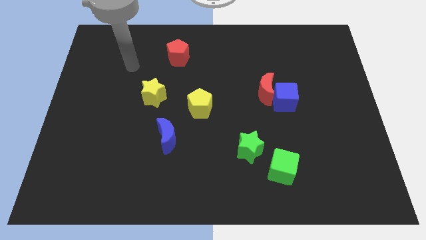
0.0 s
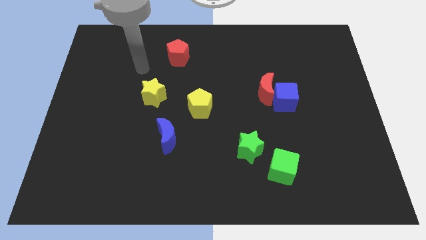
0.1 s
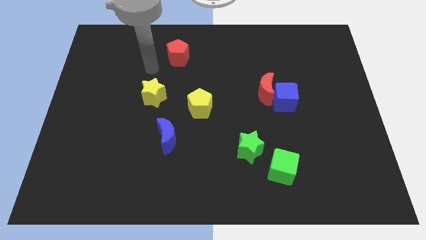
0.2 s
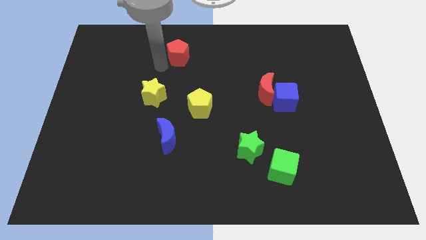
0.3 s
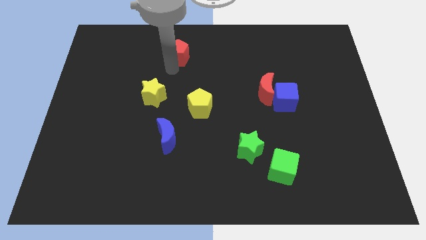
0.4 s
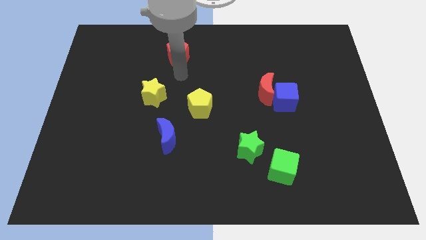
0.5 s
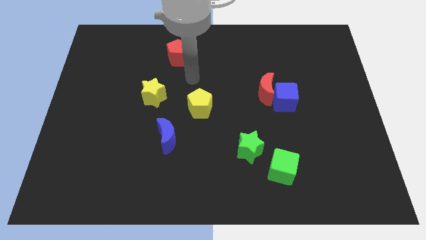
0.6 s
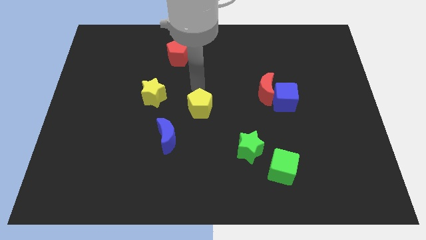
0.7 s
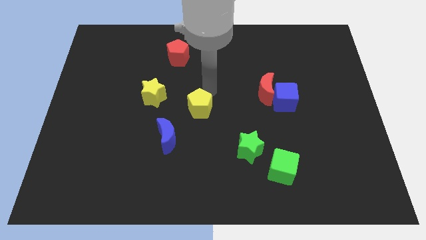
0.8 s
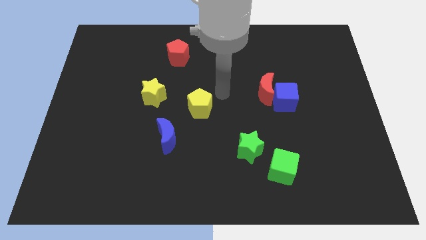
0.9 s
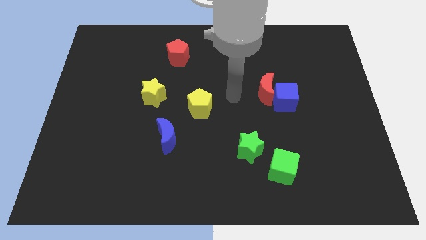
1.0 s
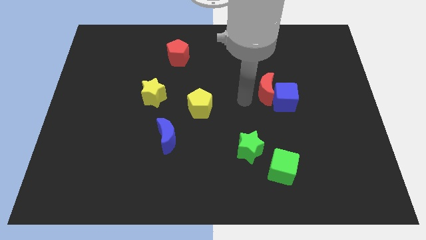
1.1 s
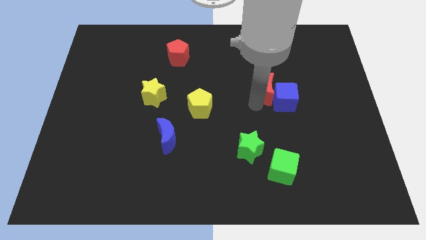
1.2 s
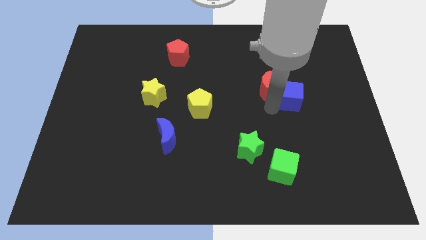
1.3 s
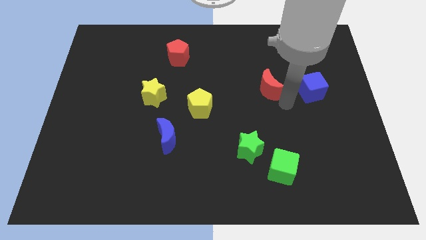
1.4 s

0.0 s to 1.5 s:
separate the red moon from the blue cube

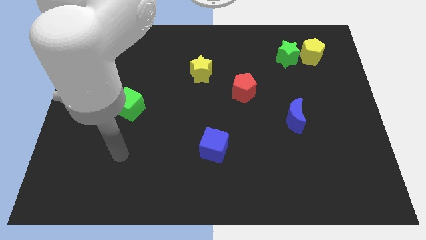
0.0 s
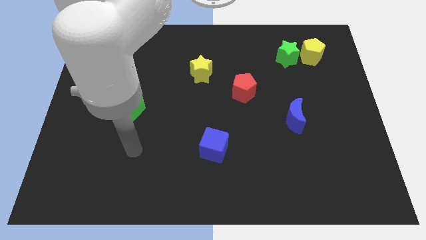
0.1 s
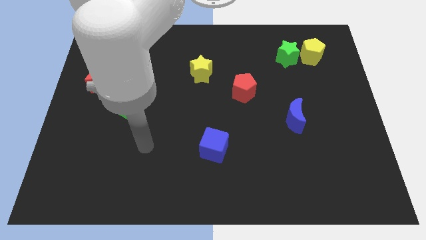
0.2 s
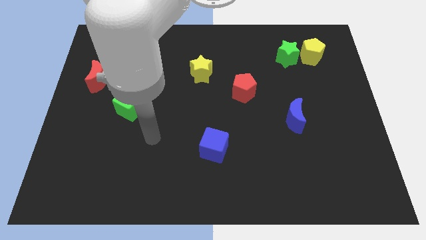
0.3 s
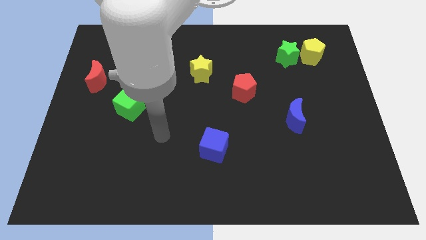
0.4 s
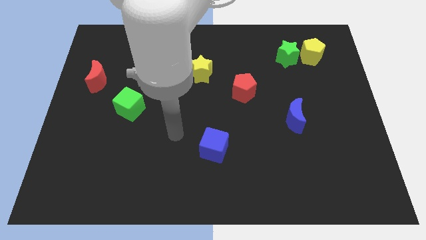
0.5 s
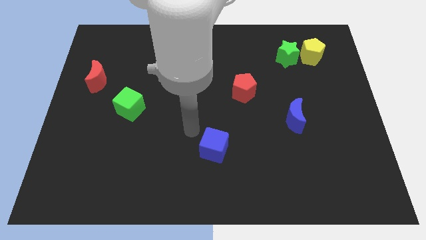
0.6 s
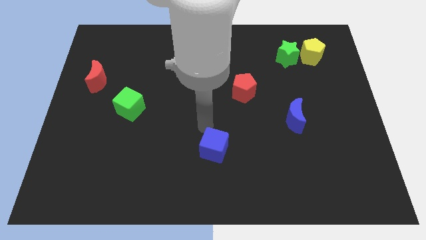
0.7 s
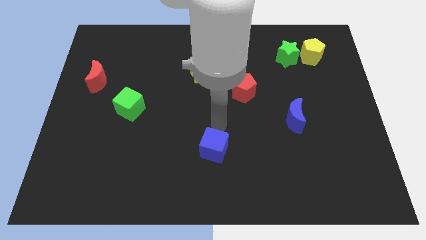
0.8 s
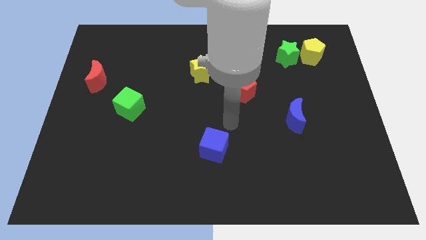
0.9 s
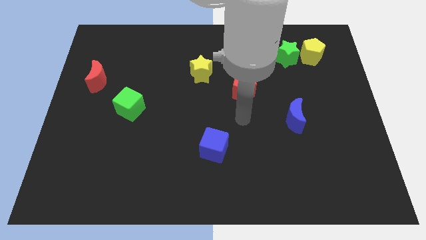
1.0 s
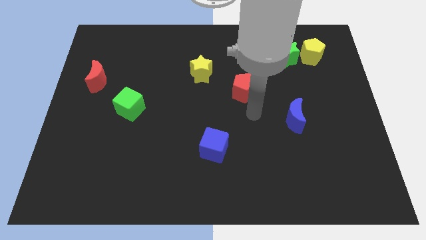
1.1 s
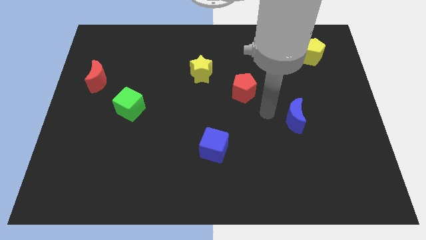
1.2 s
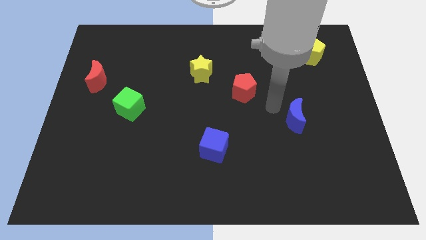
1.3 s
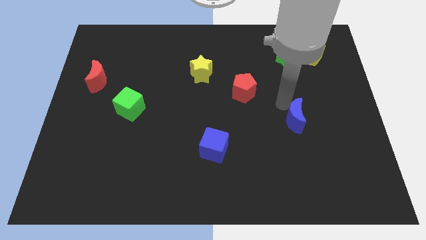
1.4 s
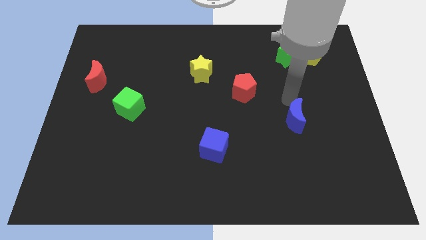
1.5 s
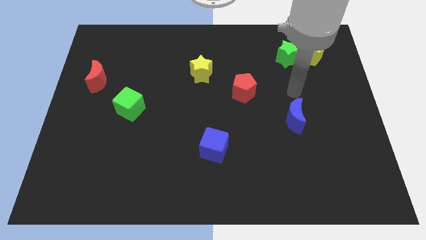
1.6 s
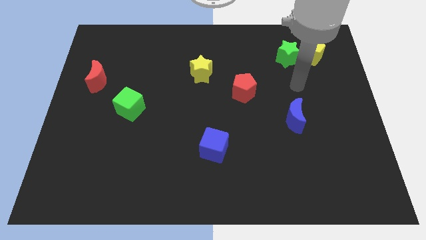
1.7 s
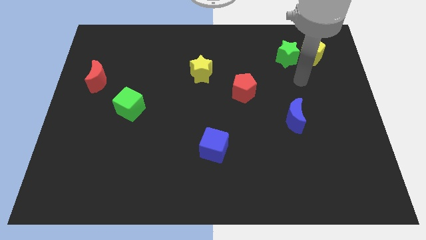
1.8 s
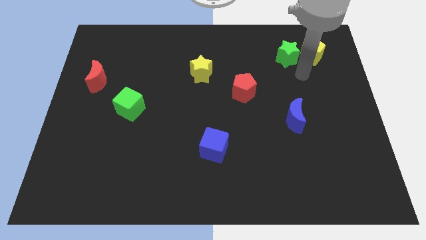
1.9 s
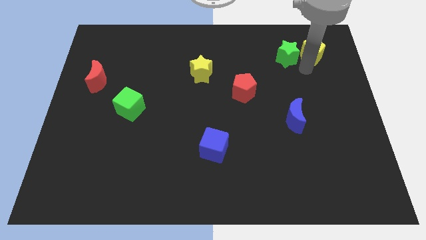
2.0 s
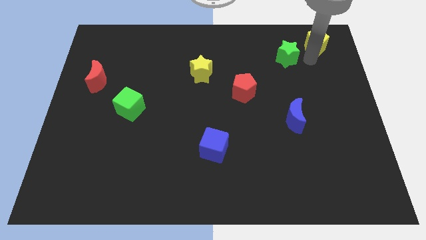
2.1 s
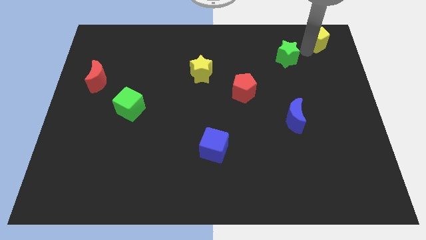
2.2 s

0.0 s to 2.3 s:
move the green star away from the yellow pentagon

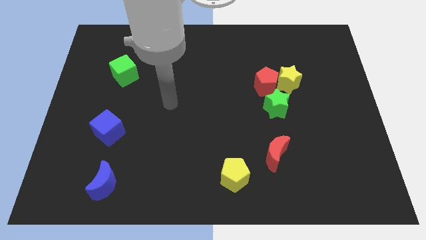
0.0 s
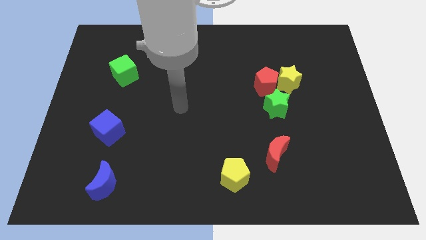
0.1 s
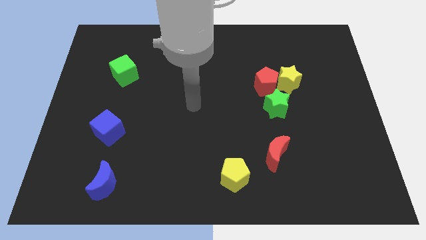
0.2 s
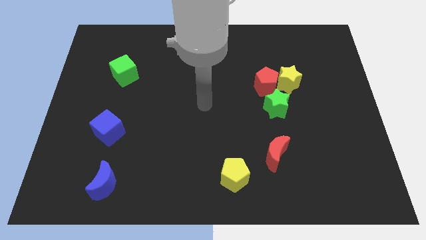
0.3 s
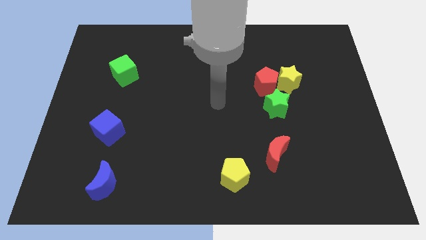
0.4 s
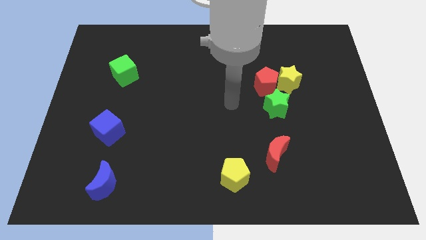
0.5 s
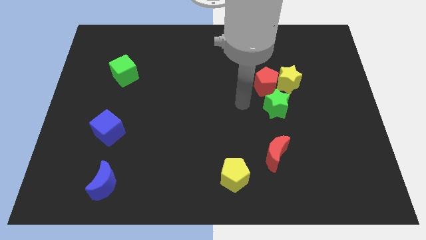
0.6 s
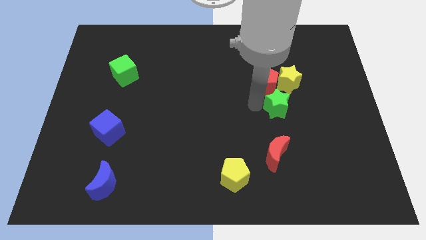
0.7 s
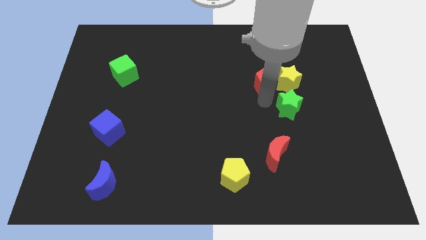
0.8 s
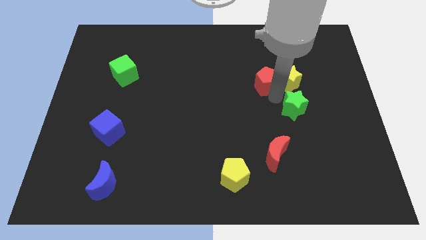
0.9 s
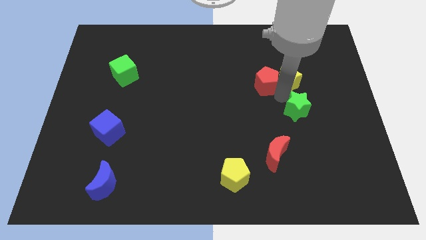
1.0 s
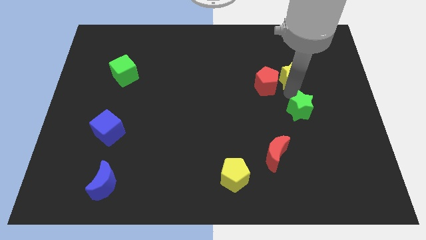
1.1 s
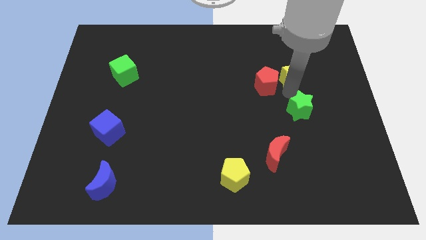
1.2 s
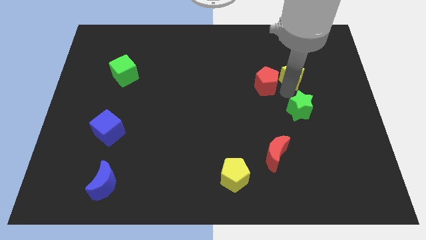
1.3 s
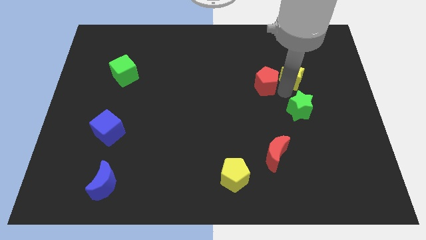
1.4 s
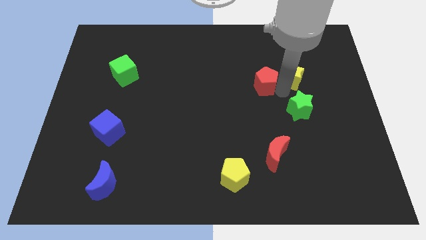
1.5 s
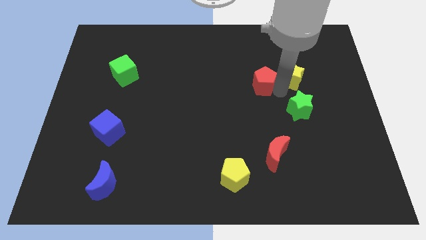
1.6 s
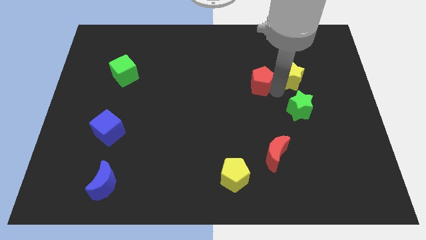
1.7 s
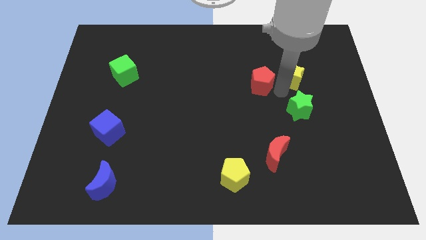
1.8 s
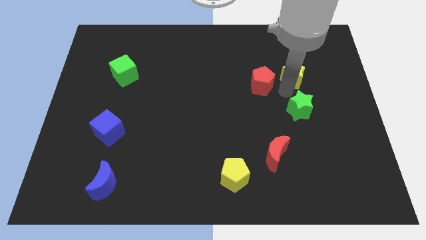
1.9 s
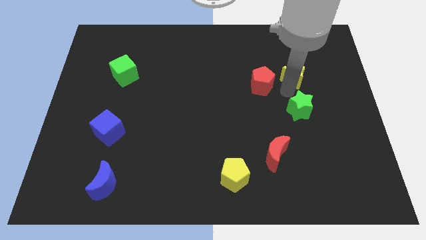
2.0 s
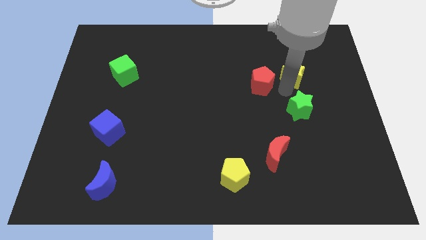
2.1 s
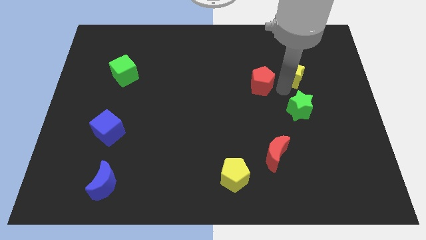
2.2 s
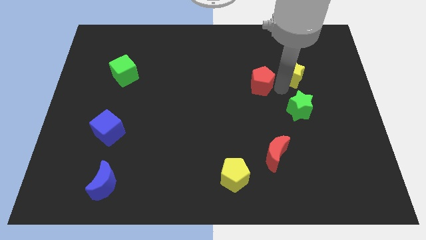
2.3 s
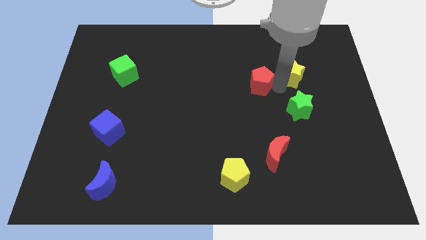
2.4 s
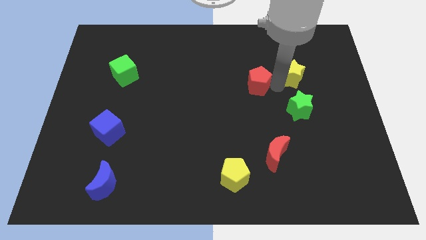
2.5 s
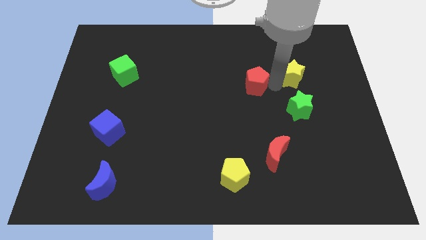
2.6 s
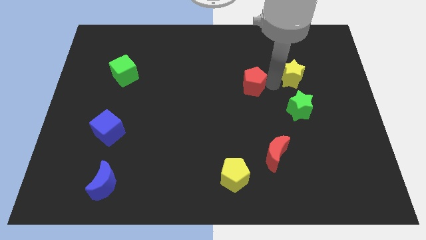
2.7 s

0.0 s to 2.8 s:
pull the red pentagon apart from the yellow star and green star

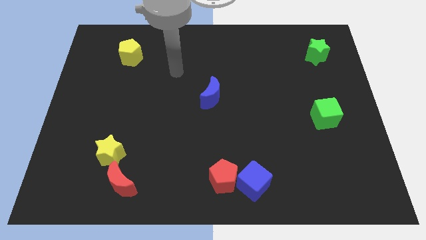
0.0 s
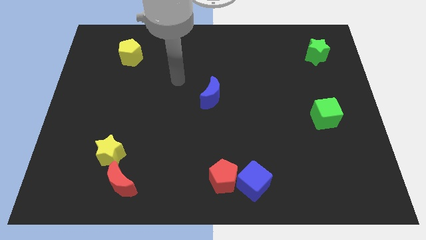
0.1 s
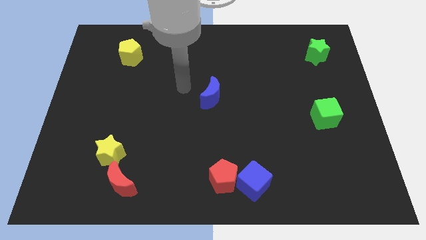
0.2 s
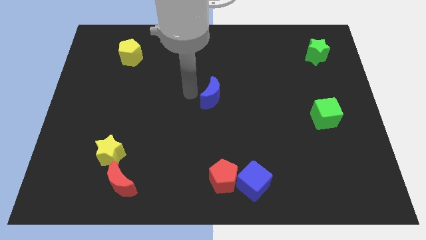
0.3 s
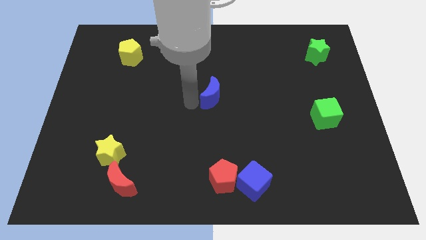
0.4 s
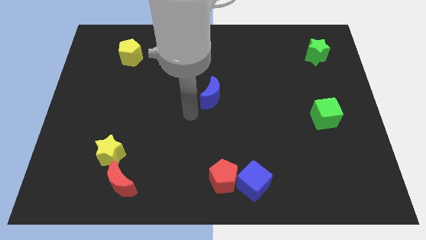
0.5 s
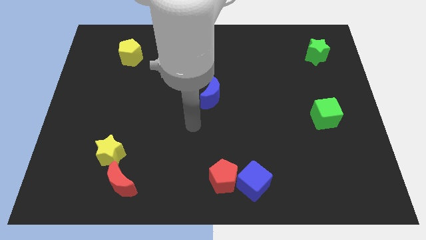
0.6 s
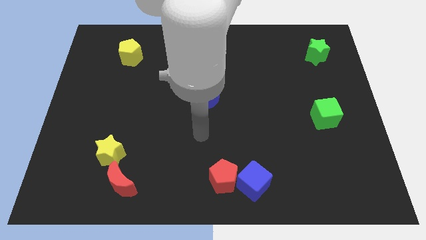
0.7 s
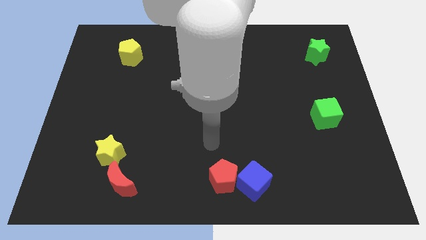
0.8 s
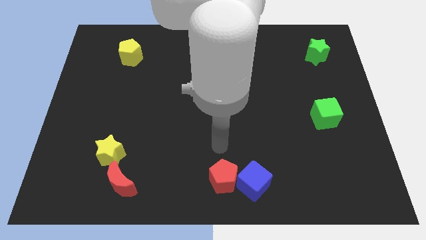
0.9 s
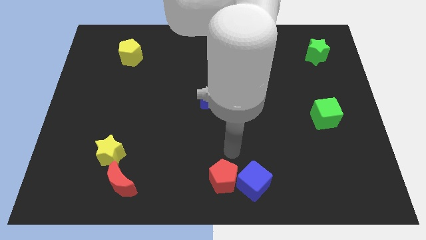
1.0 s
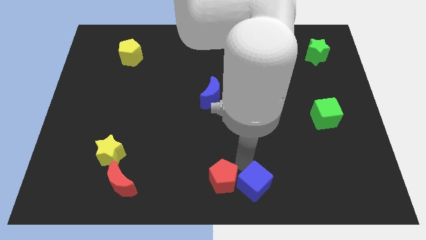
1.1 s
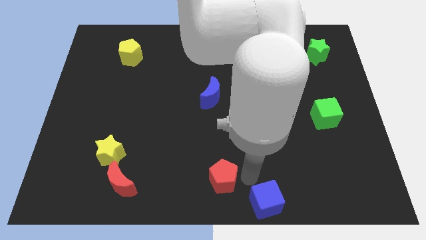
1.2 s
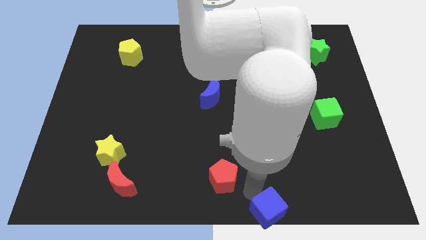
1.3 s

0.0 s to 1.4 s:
pull the red pentagon apart from the blue cube

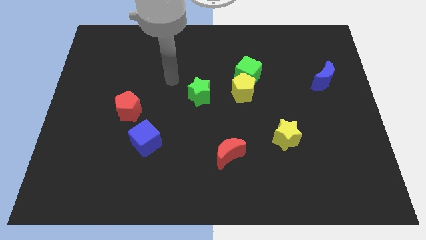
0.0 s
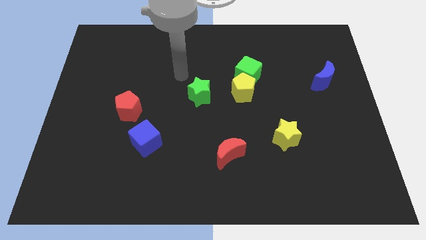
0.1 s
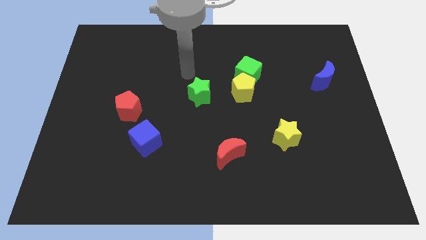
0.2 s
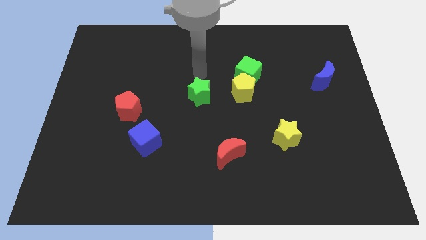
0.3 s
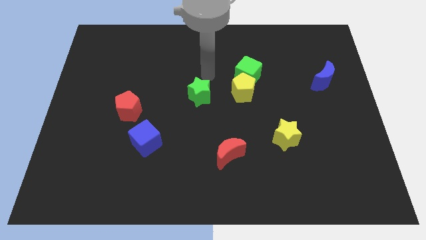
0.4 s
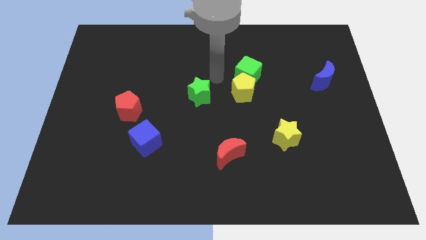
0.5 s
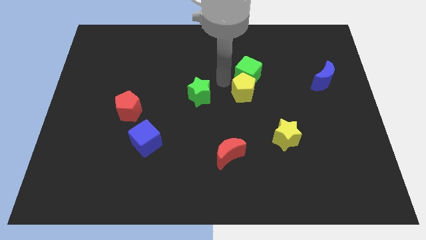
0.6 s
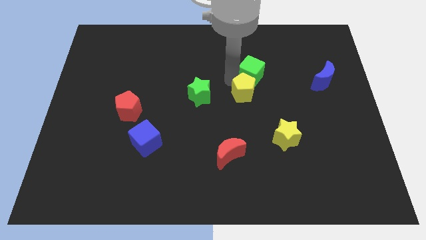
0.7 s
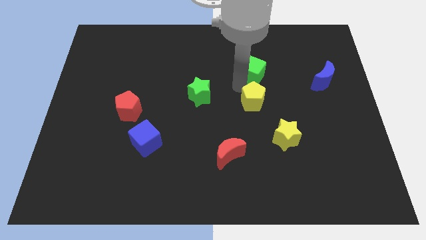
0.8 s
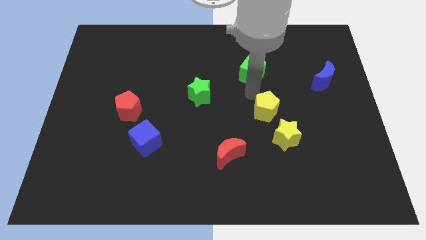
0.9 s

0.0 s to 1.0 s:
pull the green cube apart from the yellow pentagon

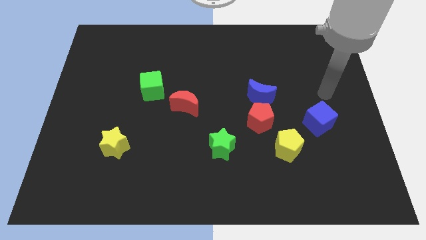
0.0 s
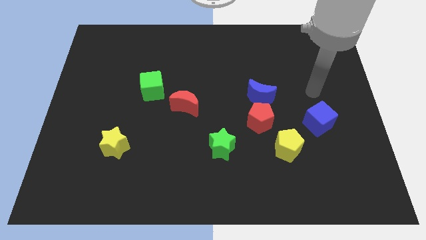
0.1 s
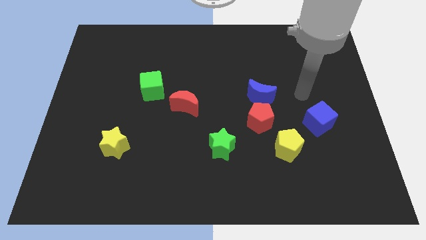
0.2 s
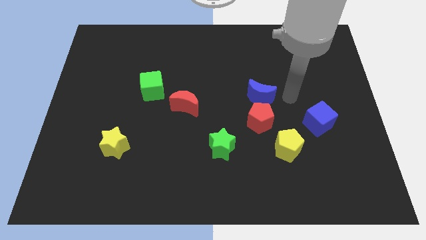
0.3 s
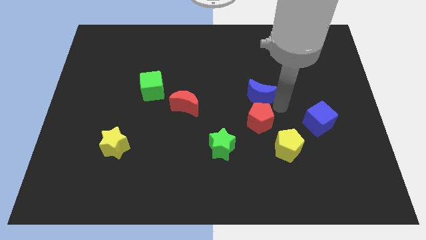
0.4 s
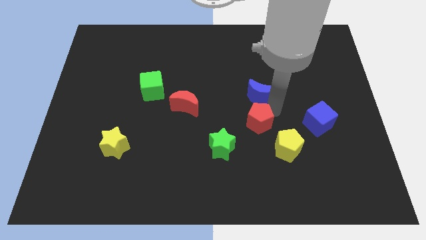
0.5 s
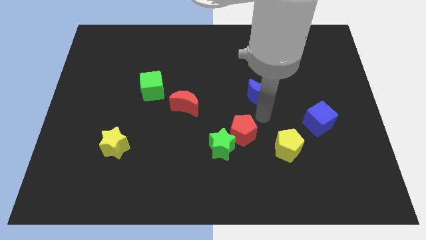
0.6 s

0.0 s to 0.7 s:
pull the blue moon apart from the red pentagon
